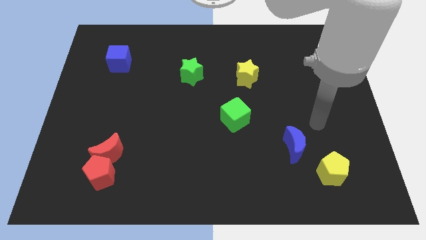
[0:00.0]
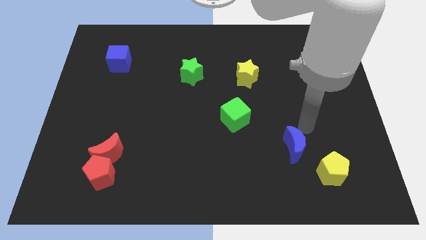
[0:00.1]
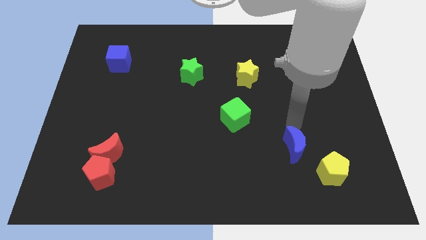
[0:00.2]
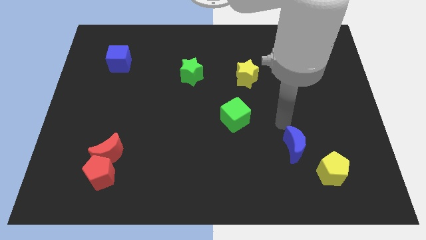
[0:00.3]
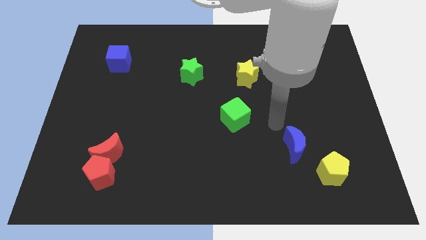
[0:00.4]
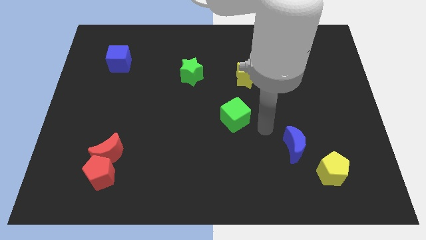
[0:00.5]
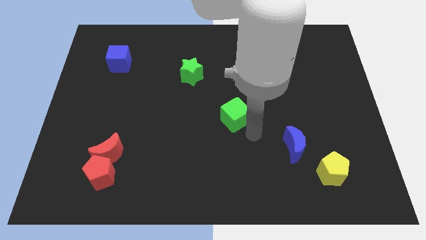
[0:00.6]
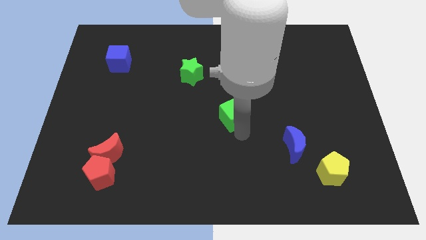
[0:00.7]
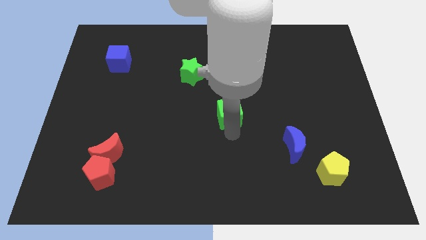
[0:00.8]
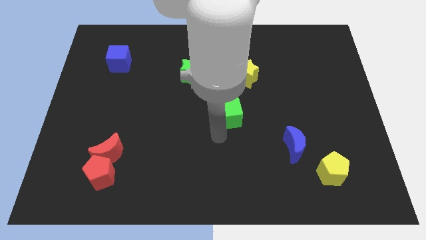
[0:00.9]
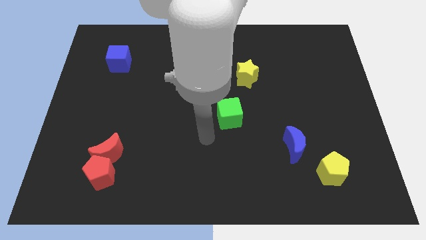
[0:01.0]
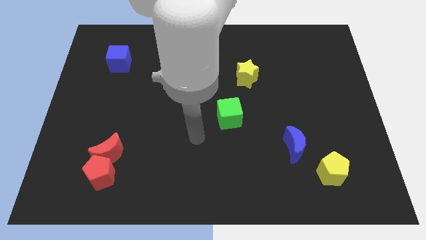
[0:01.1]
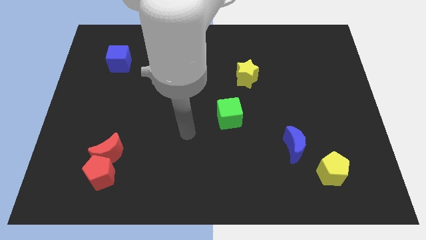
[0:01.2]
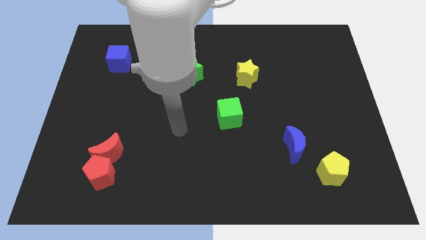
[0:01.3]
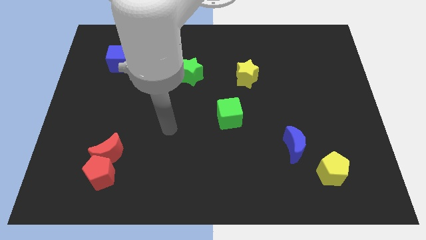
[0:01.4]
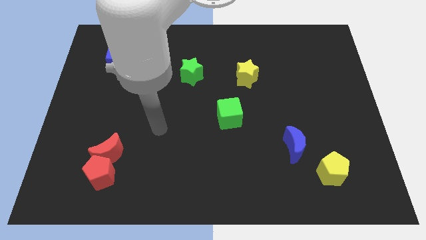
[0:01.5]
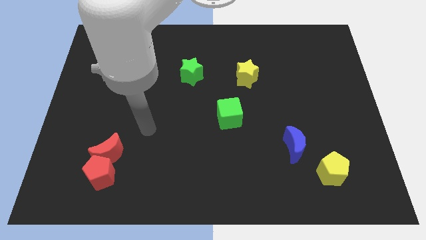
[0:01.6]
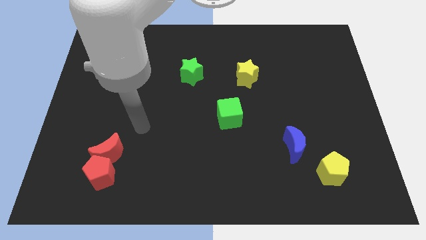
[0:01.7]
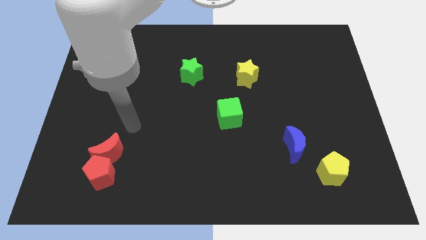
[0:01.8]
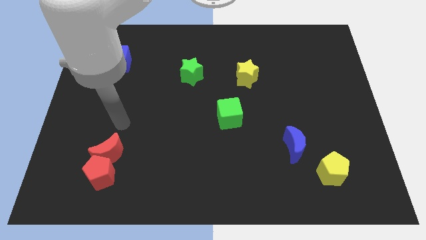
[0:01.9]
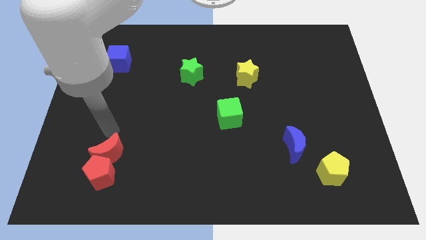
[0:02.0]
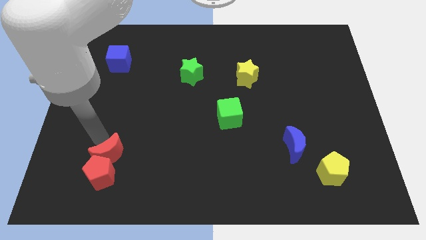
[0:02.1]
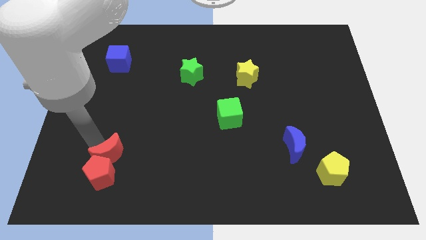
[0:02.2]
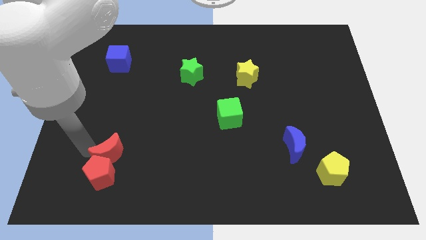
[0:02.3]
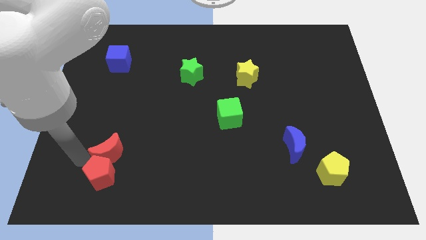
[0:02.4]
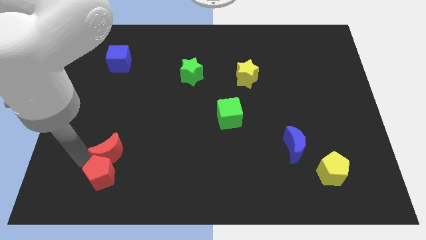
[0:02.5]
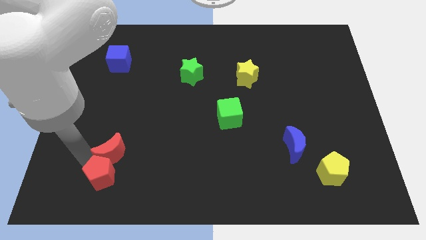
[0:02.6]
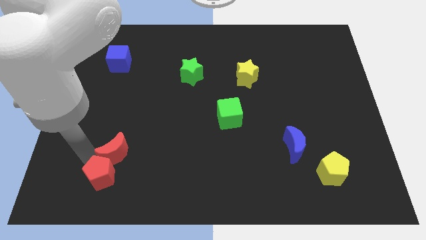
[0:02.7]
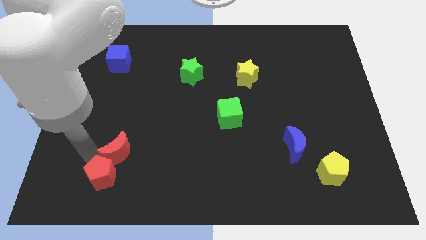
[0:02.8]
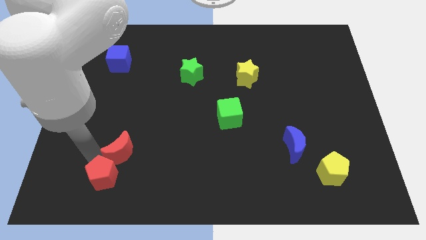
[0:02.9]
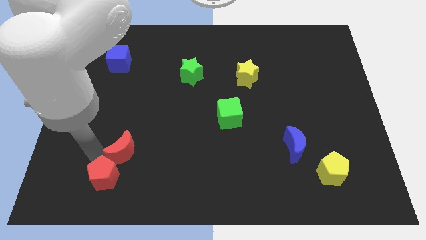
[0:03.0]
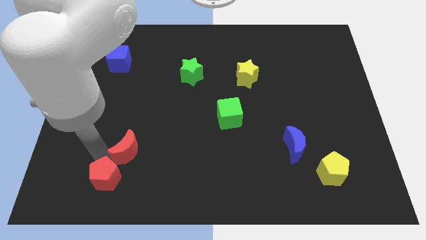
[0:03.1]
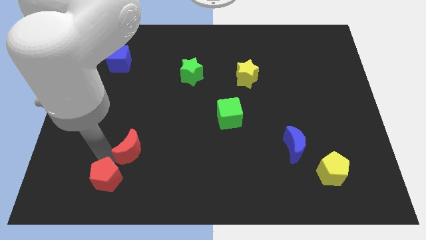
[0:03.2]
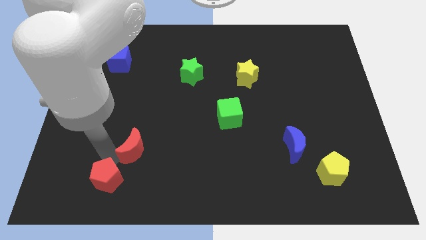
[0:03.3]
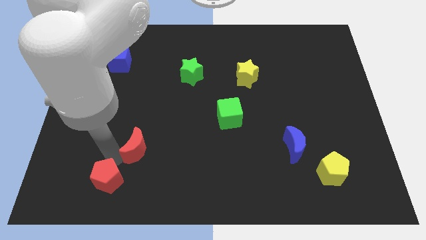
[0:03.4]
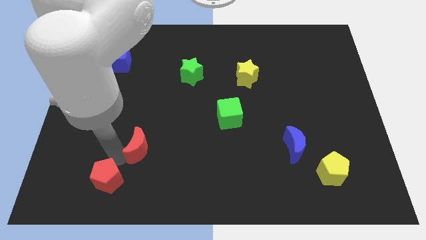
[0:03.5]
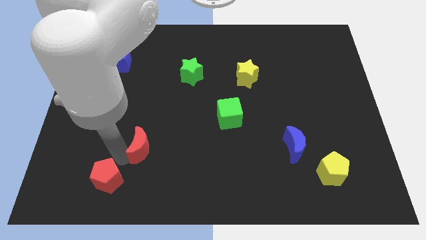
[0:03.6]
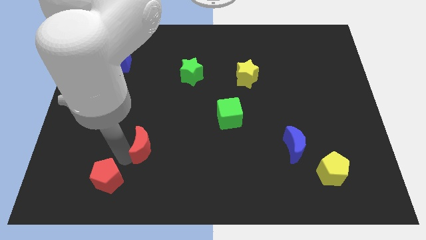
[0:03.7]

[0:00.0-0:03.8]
slightly slide the red moon to the right

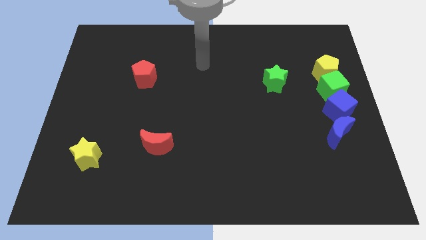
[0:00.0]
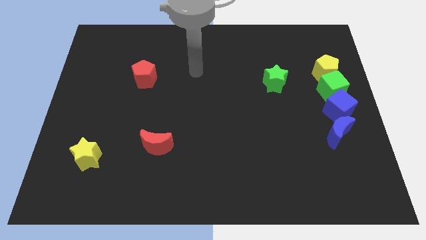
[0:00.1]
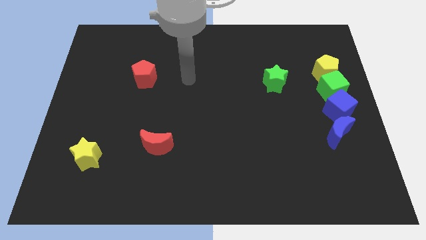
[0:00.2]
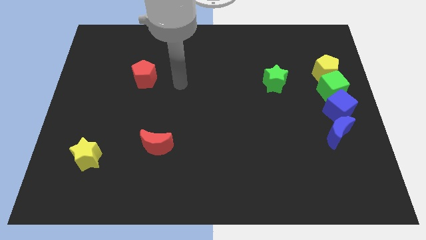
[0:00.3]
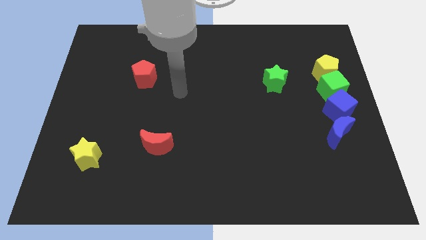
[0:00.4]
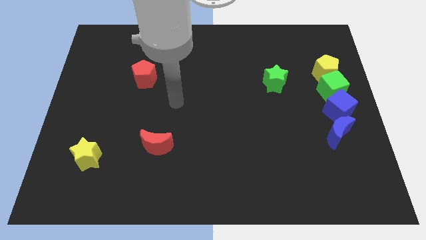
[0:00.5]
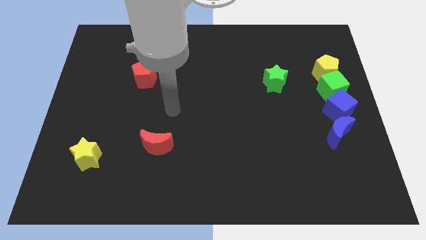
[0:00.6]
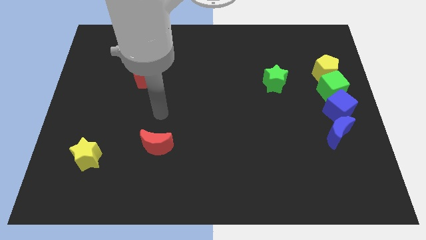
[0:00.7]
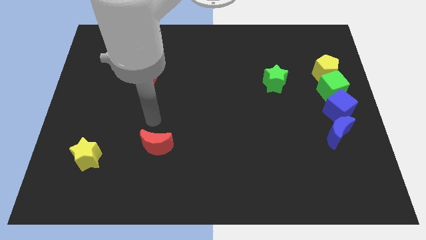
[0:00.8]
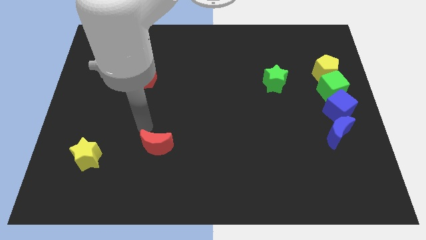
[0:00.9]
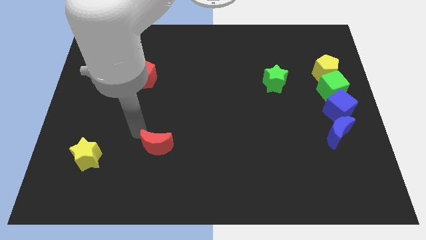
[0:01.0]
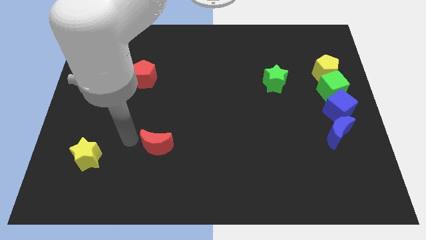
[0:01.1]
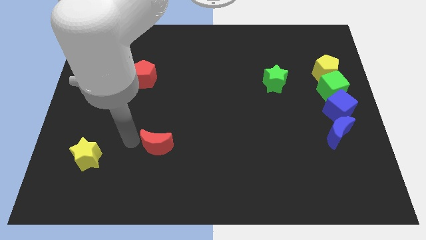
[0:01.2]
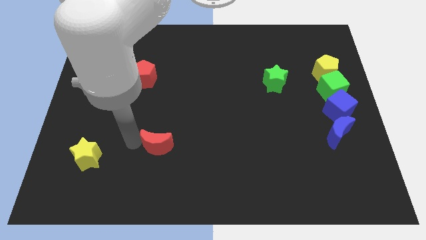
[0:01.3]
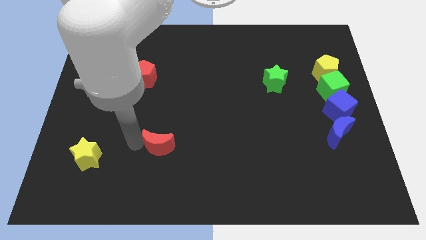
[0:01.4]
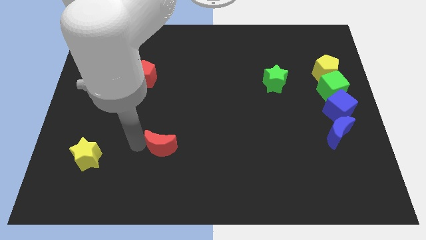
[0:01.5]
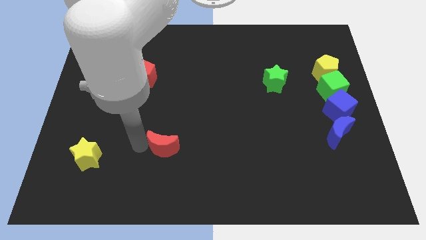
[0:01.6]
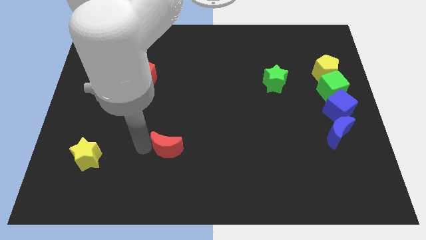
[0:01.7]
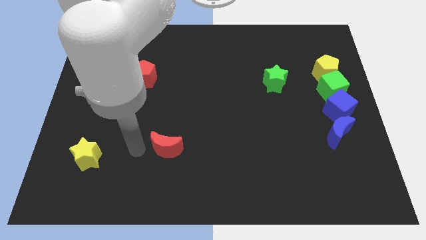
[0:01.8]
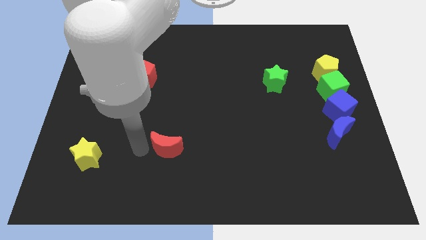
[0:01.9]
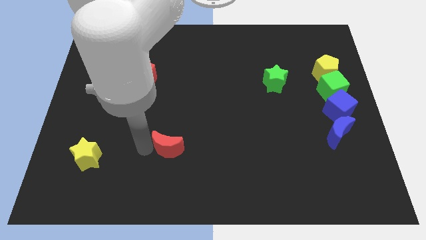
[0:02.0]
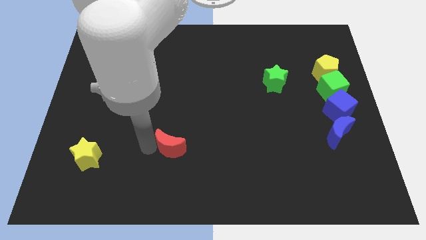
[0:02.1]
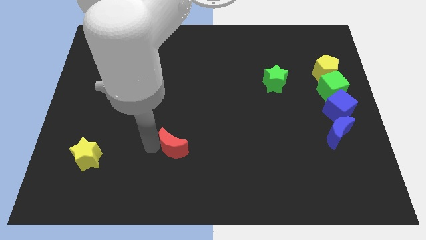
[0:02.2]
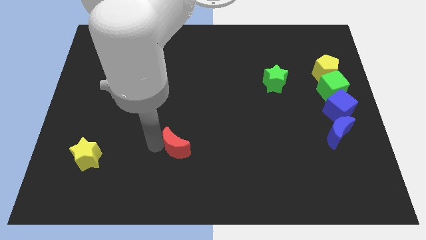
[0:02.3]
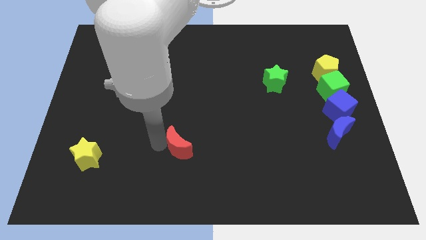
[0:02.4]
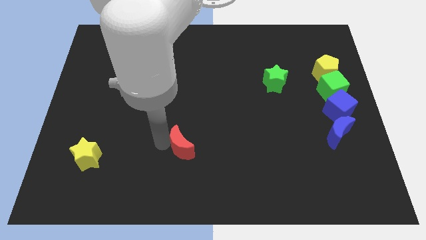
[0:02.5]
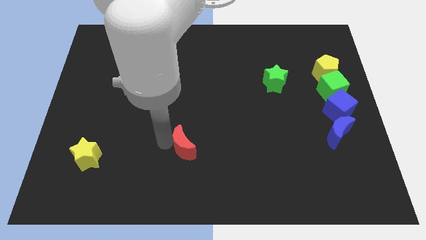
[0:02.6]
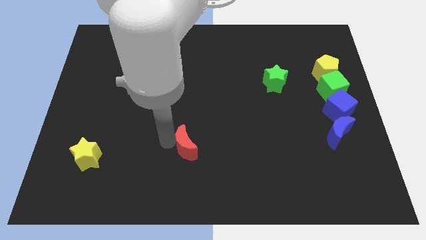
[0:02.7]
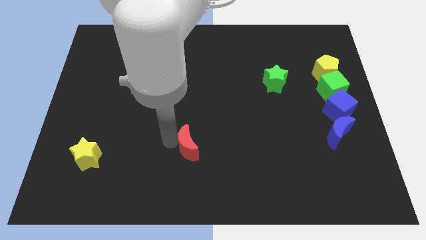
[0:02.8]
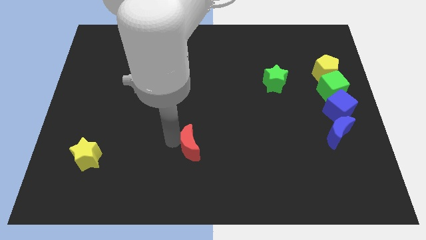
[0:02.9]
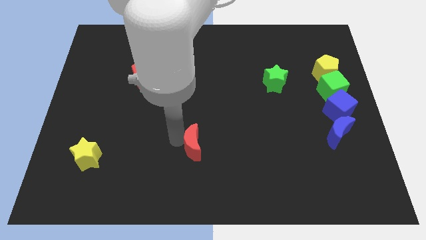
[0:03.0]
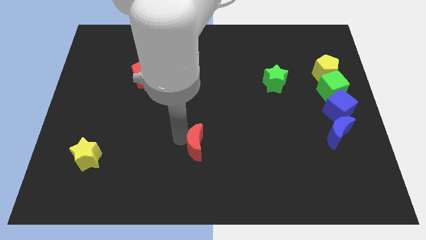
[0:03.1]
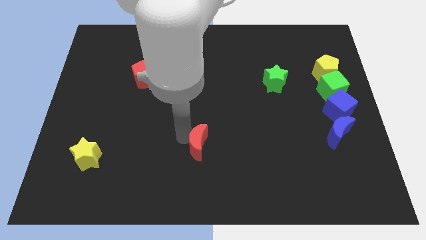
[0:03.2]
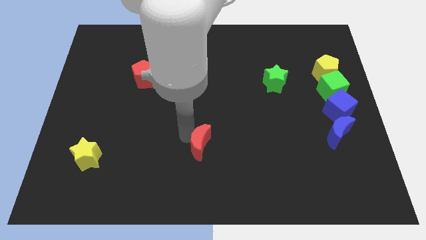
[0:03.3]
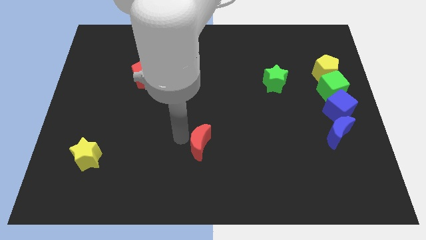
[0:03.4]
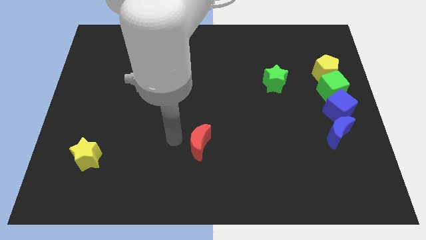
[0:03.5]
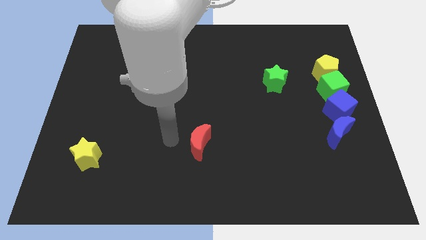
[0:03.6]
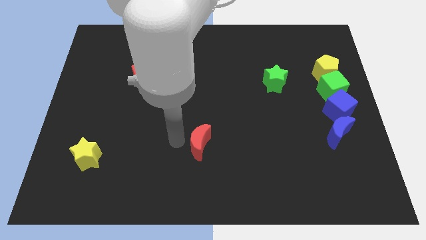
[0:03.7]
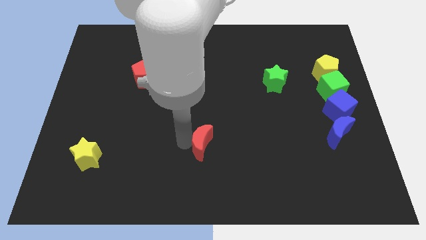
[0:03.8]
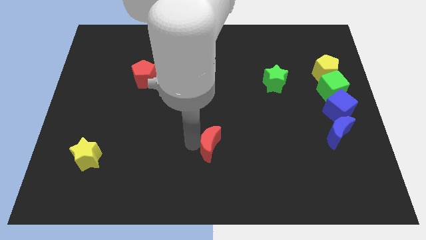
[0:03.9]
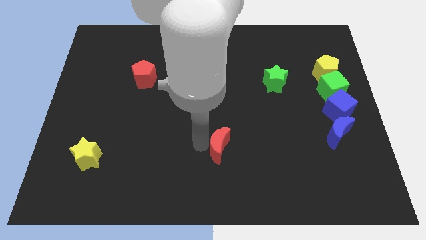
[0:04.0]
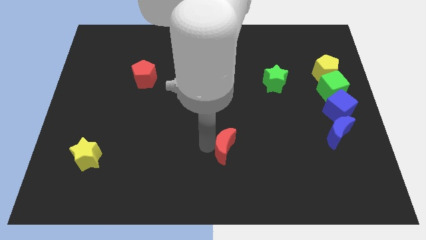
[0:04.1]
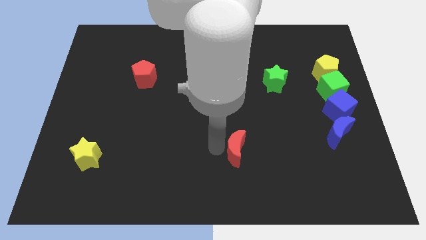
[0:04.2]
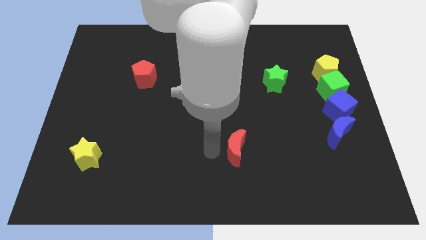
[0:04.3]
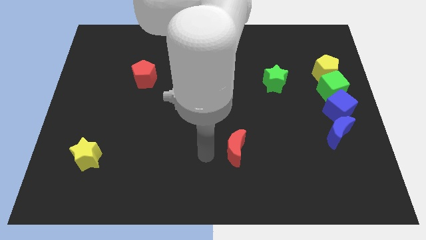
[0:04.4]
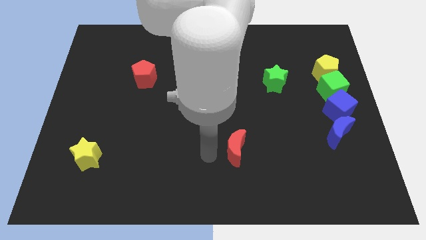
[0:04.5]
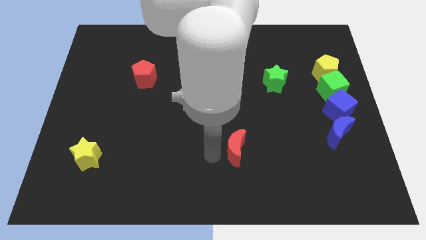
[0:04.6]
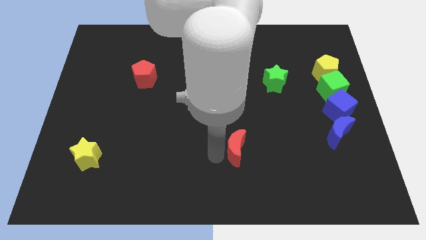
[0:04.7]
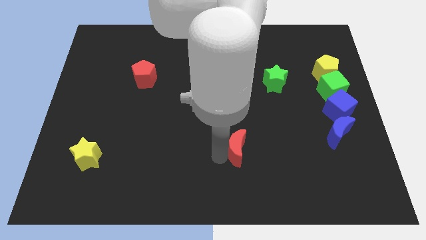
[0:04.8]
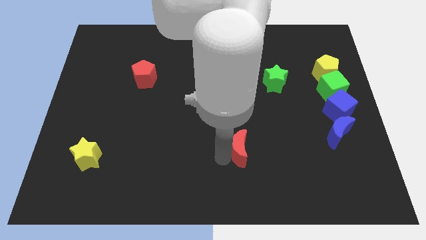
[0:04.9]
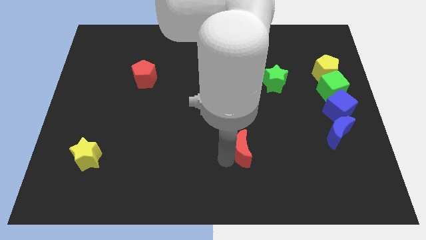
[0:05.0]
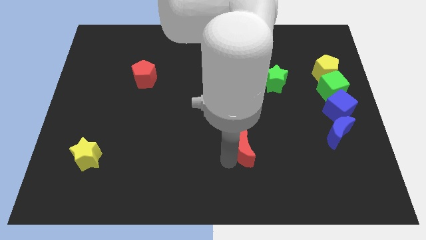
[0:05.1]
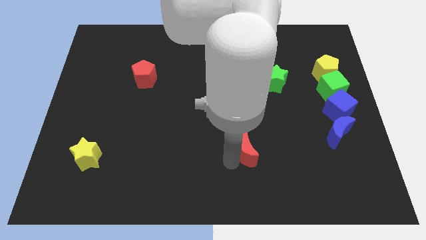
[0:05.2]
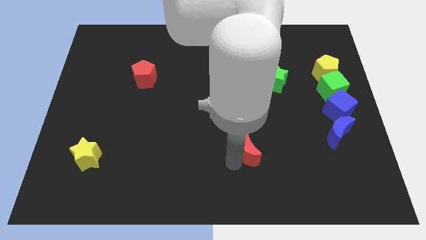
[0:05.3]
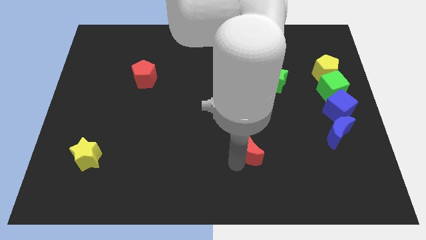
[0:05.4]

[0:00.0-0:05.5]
move the red moon to the right
